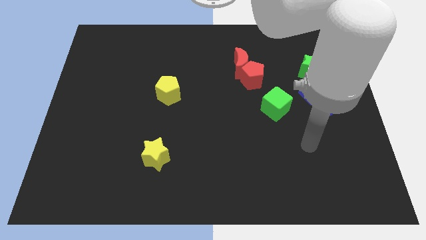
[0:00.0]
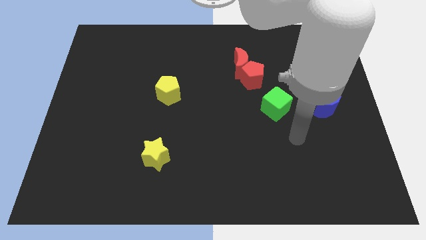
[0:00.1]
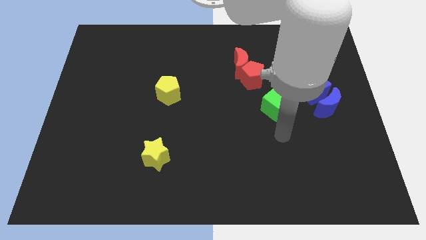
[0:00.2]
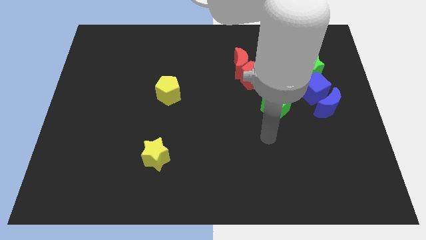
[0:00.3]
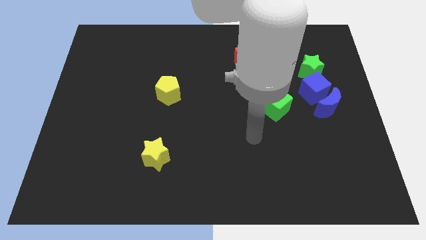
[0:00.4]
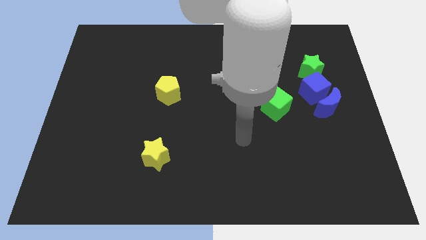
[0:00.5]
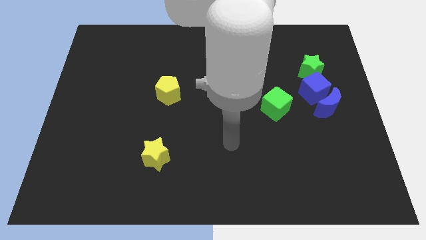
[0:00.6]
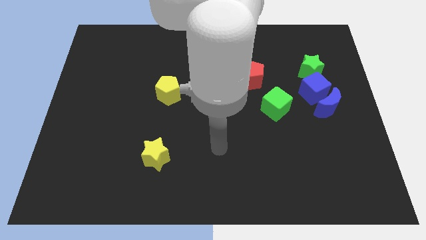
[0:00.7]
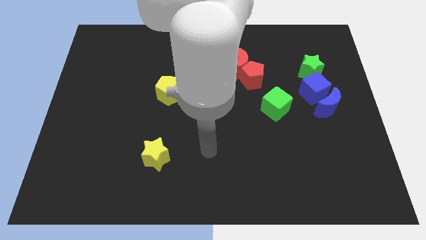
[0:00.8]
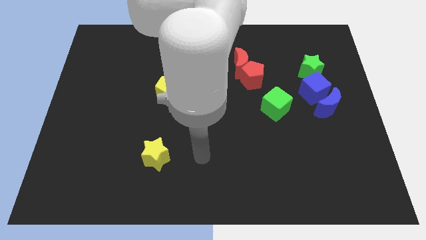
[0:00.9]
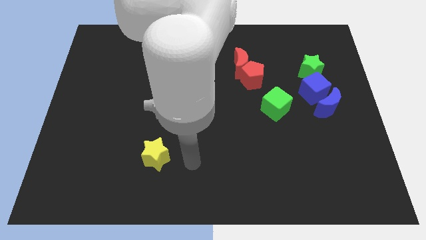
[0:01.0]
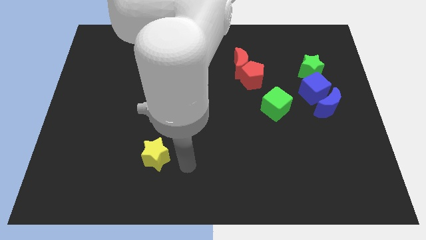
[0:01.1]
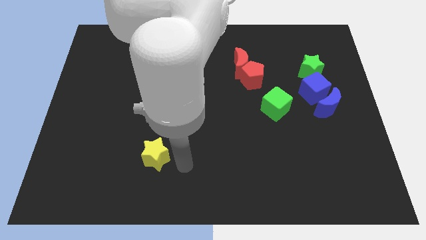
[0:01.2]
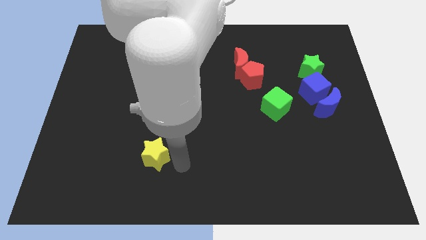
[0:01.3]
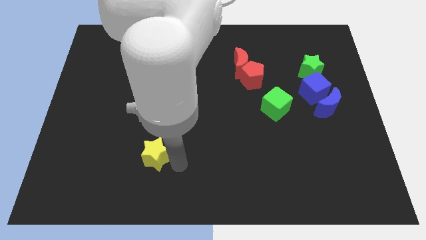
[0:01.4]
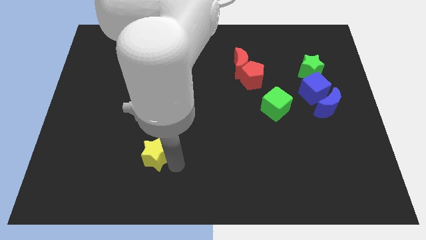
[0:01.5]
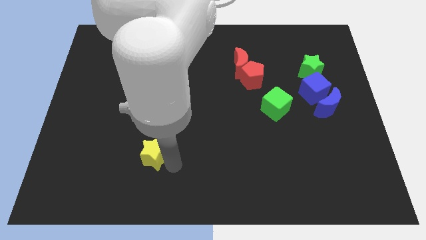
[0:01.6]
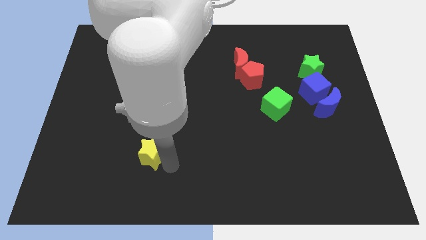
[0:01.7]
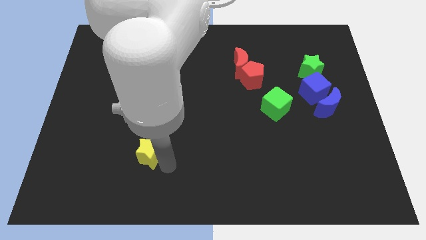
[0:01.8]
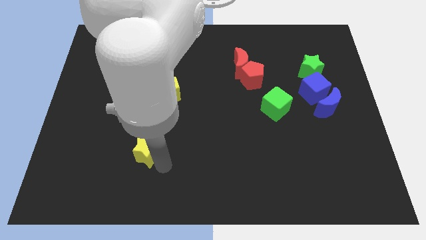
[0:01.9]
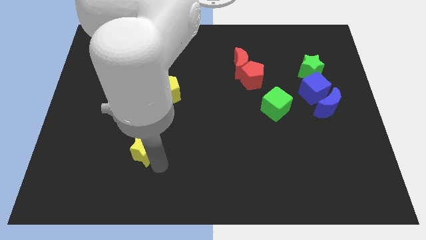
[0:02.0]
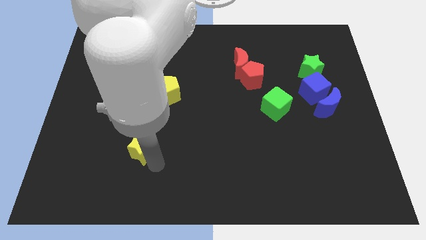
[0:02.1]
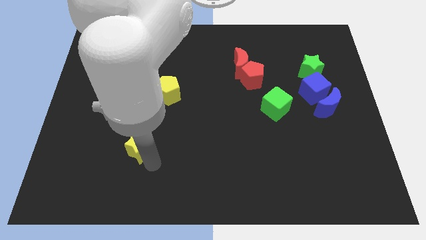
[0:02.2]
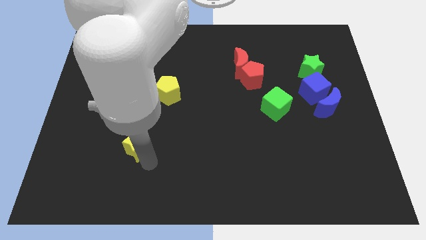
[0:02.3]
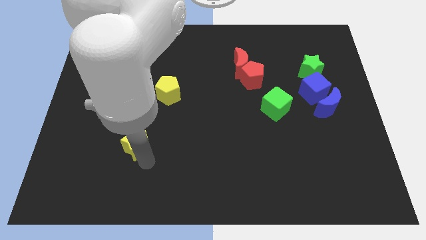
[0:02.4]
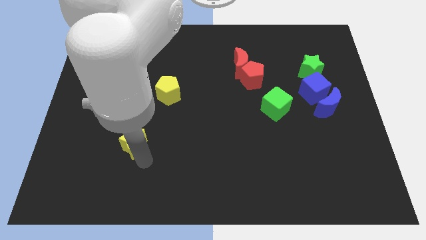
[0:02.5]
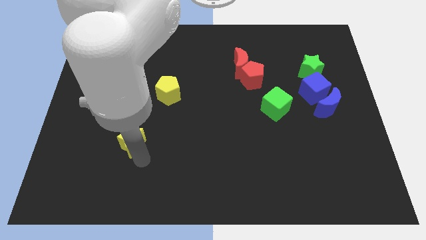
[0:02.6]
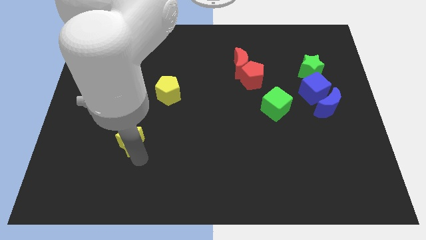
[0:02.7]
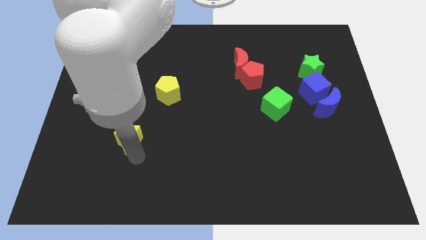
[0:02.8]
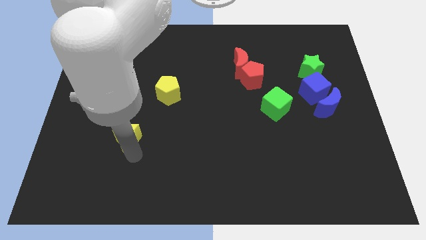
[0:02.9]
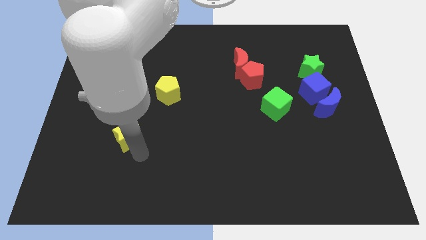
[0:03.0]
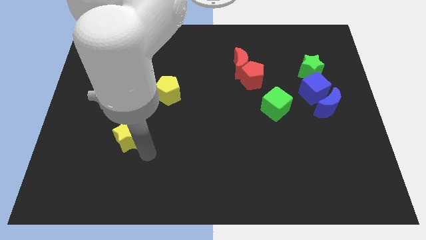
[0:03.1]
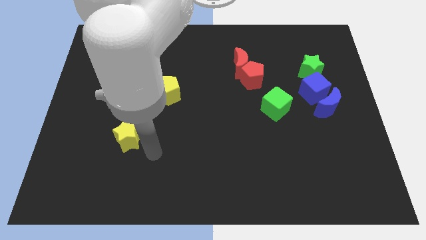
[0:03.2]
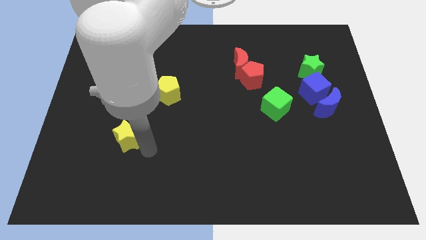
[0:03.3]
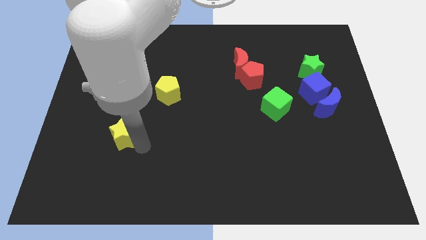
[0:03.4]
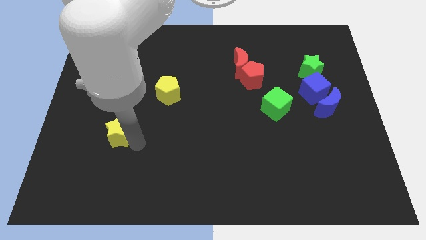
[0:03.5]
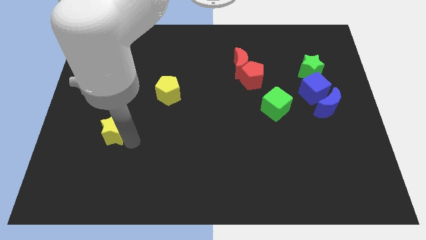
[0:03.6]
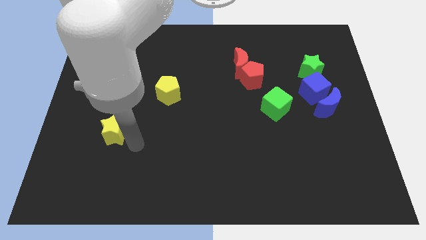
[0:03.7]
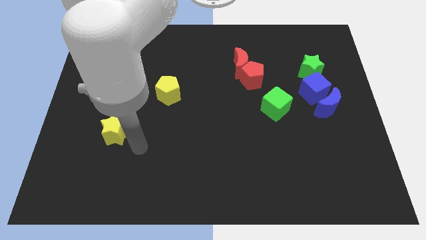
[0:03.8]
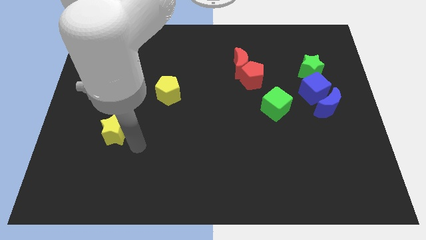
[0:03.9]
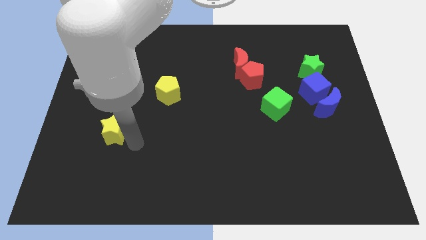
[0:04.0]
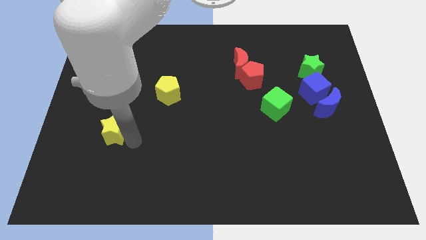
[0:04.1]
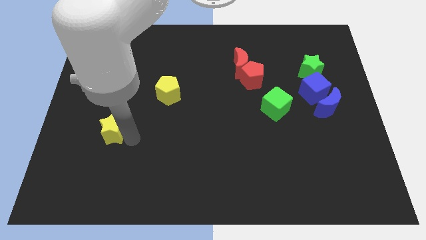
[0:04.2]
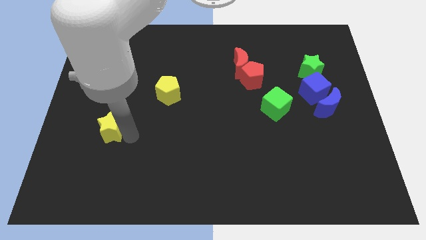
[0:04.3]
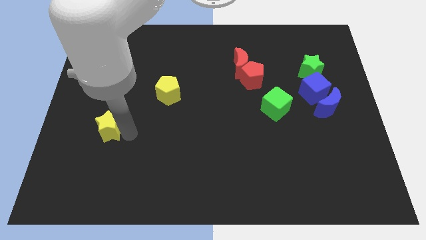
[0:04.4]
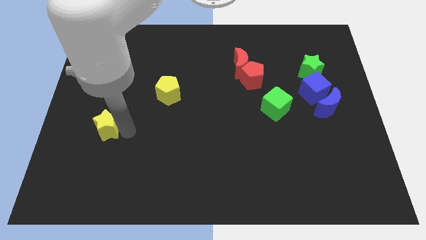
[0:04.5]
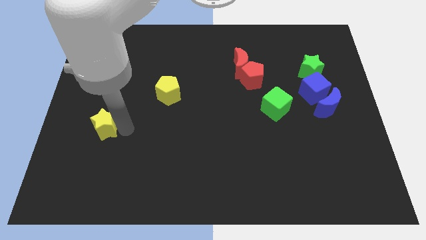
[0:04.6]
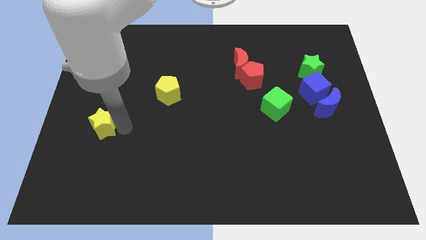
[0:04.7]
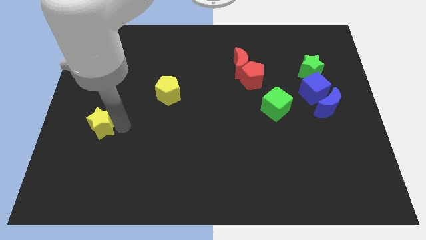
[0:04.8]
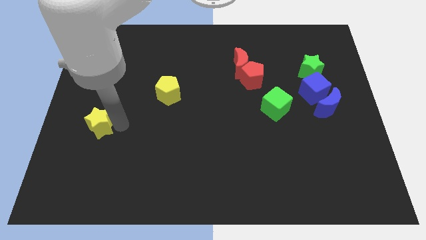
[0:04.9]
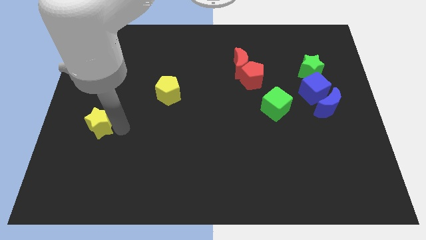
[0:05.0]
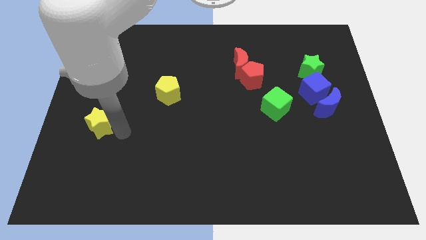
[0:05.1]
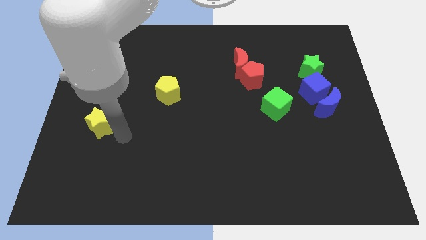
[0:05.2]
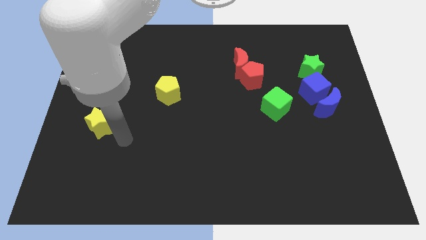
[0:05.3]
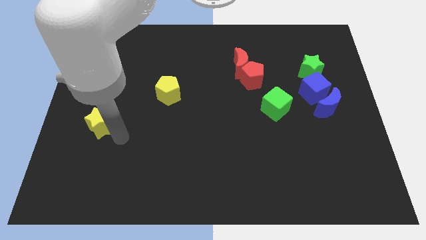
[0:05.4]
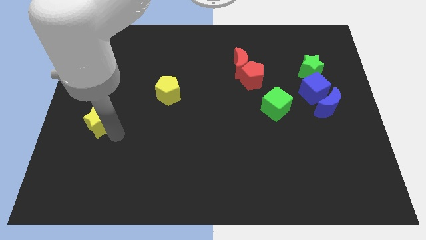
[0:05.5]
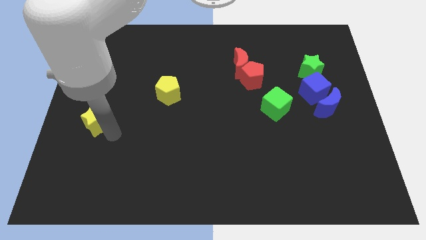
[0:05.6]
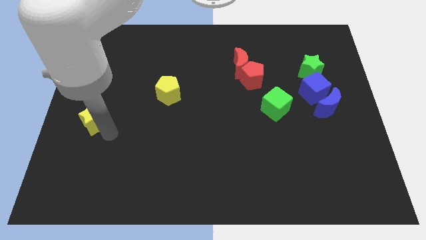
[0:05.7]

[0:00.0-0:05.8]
push the yellow star to the left side of the board

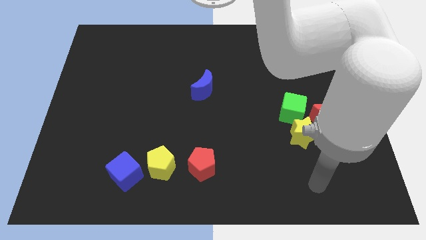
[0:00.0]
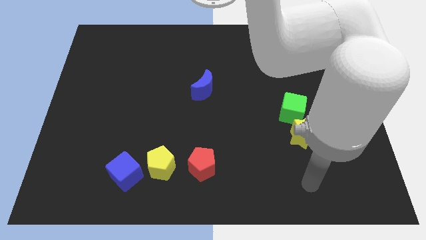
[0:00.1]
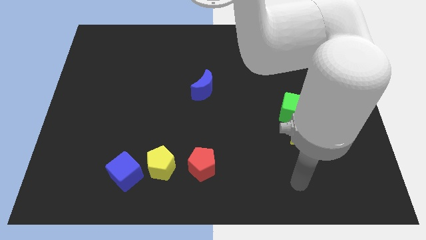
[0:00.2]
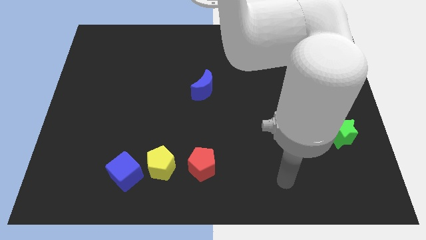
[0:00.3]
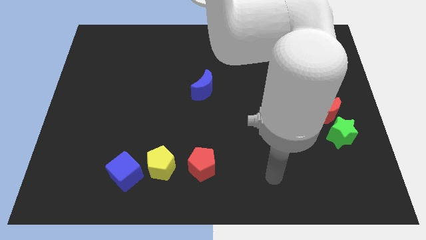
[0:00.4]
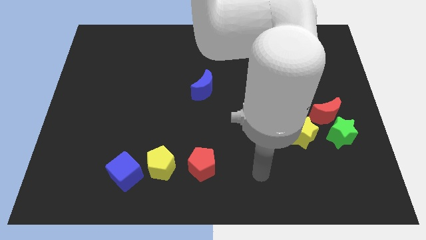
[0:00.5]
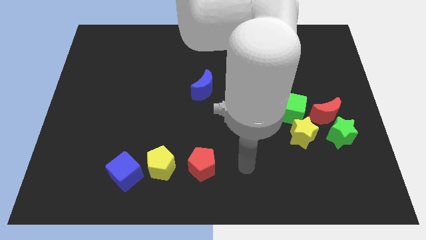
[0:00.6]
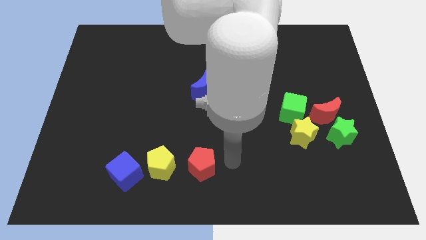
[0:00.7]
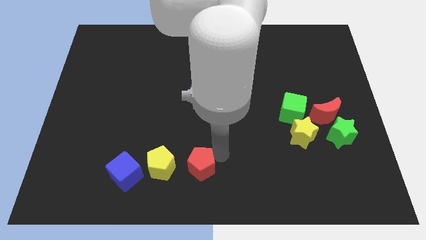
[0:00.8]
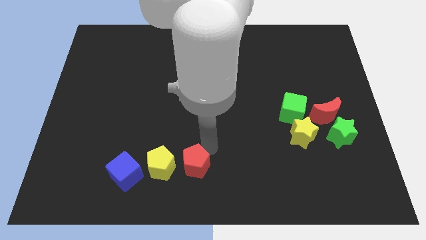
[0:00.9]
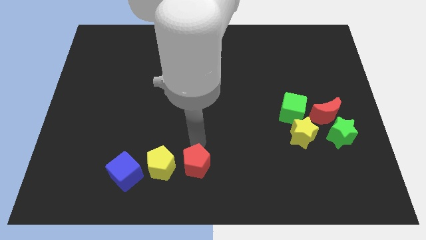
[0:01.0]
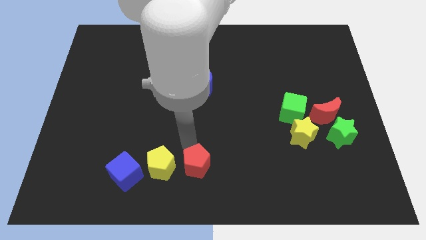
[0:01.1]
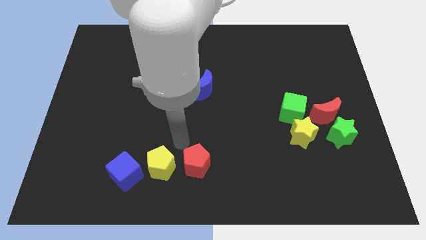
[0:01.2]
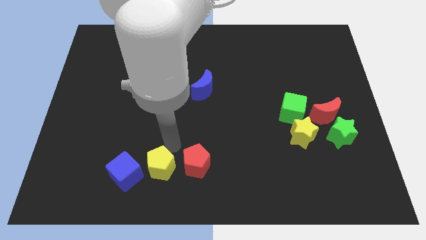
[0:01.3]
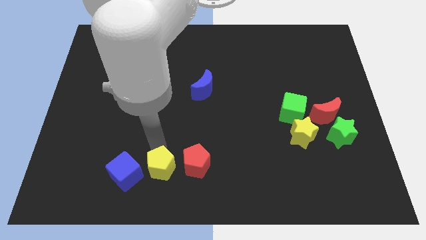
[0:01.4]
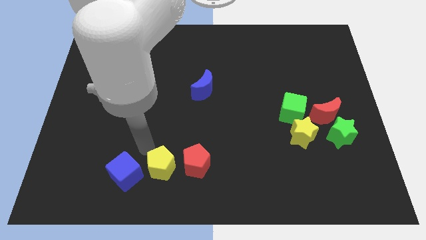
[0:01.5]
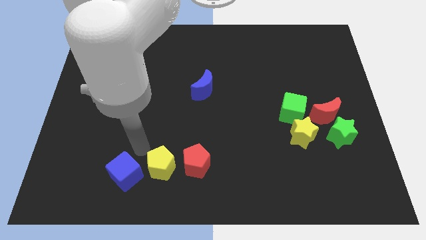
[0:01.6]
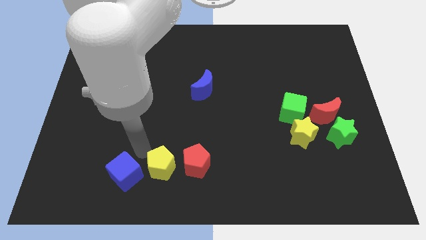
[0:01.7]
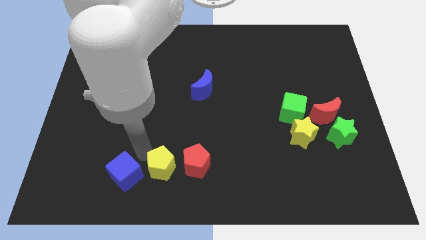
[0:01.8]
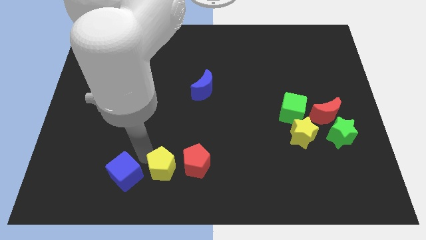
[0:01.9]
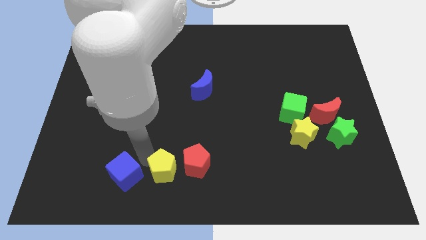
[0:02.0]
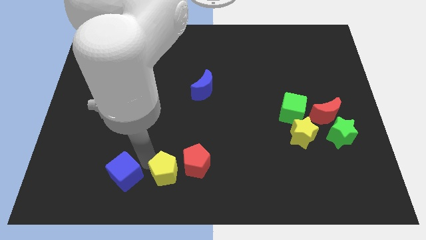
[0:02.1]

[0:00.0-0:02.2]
move the yellow pentagon to the bottom
